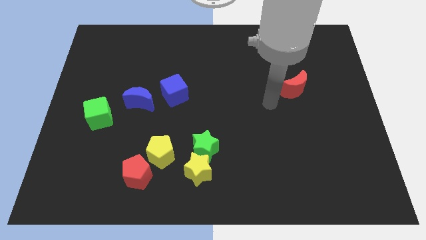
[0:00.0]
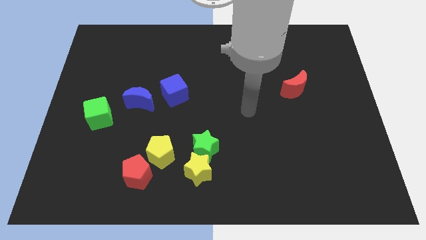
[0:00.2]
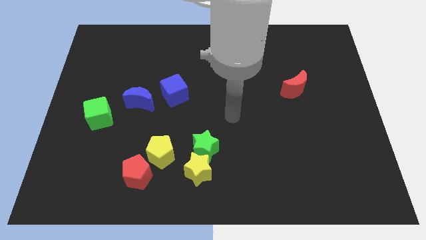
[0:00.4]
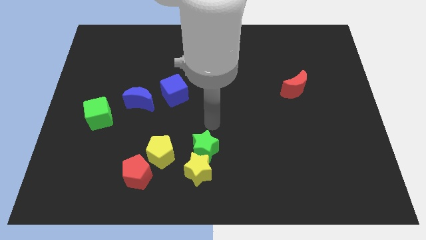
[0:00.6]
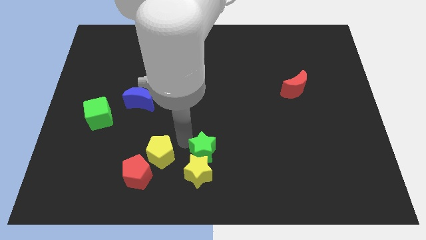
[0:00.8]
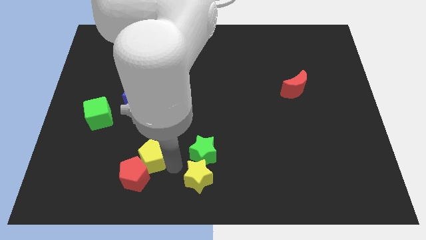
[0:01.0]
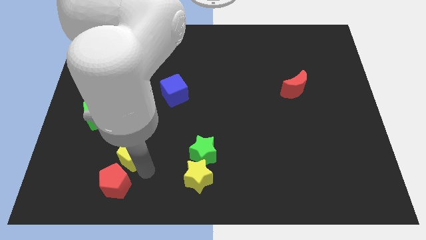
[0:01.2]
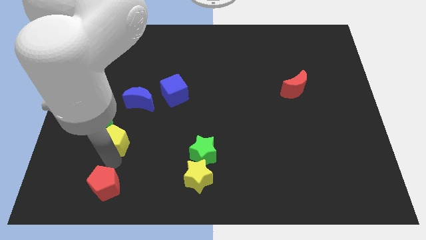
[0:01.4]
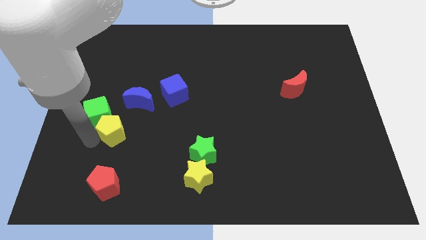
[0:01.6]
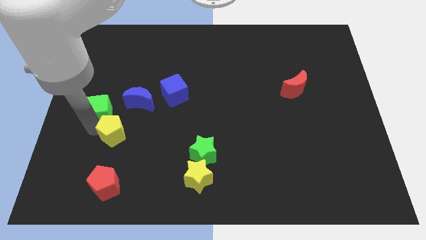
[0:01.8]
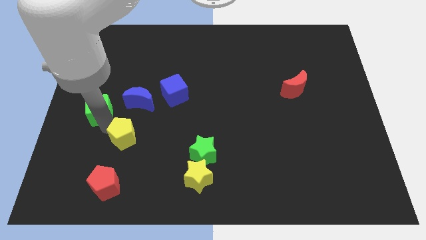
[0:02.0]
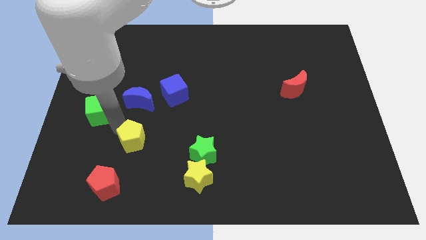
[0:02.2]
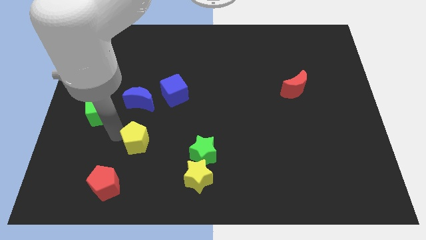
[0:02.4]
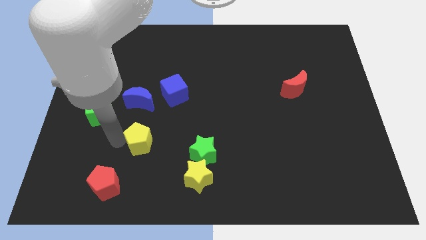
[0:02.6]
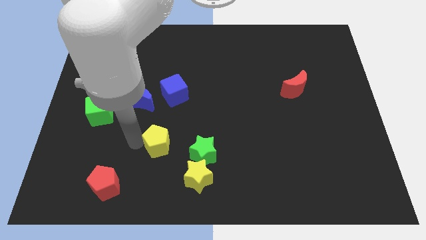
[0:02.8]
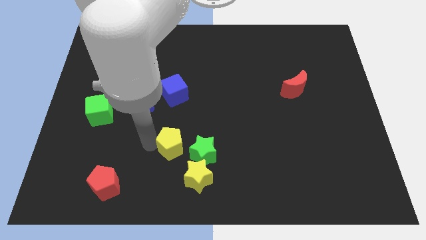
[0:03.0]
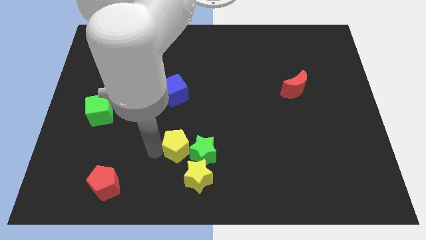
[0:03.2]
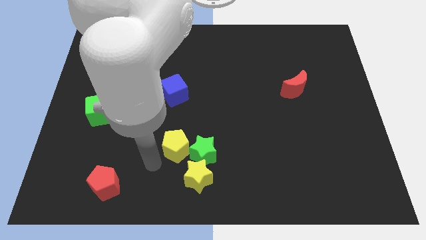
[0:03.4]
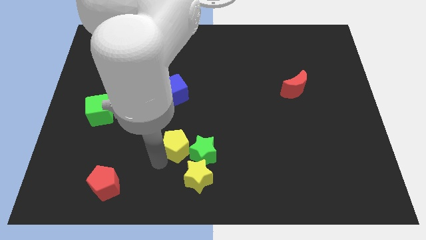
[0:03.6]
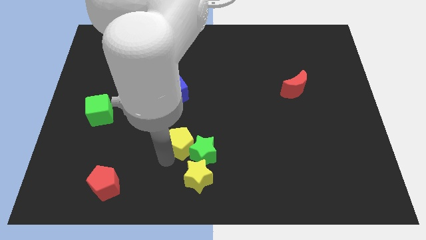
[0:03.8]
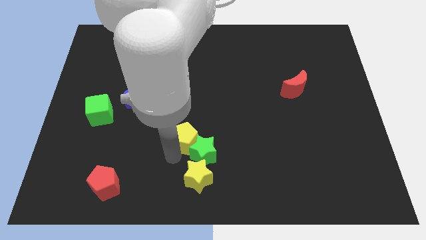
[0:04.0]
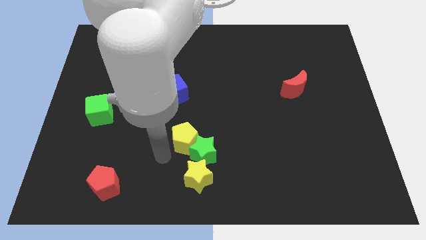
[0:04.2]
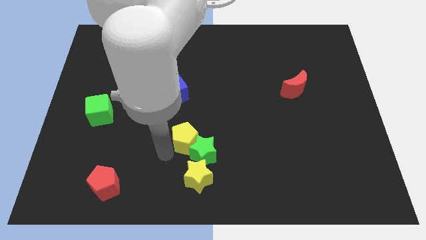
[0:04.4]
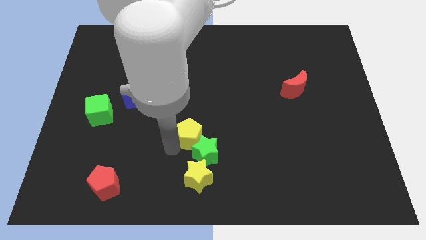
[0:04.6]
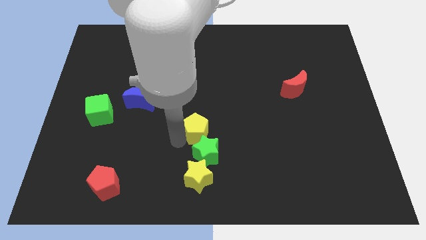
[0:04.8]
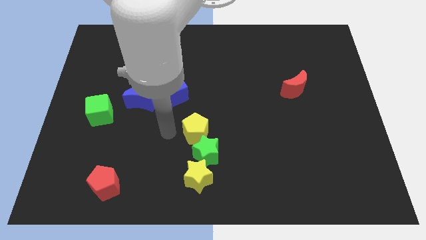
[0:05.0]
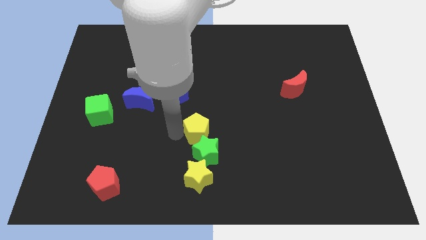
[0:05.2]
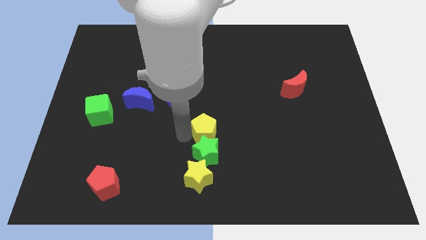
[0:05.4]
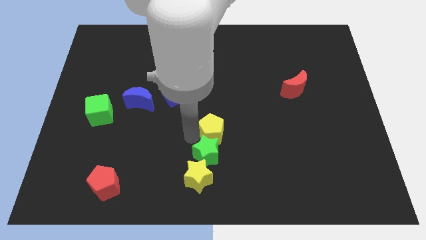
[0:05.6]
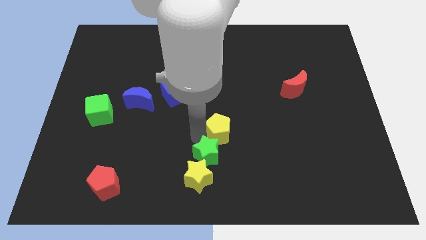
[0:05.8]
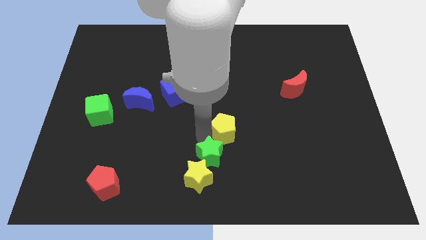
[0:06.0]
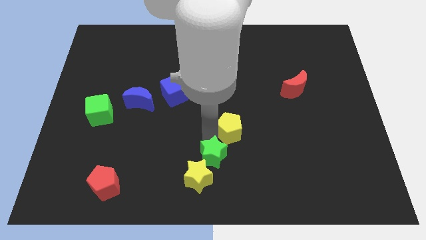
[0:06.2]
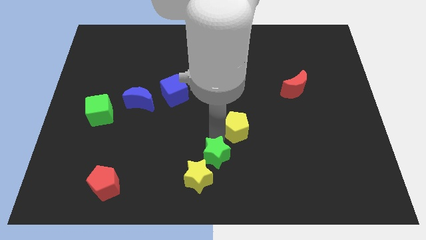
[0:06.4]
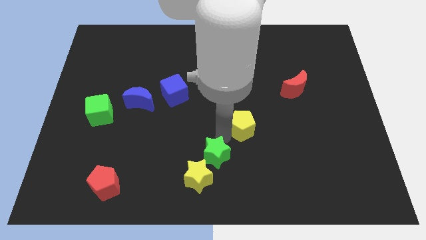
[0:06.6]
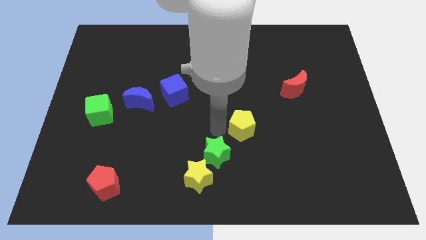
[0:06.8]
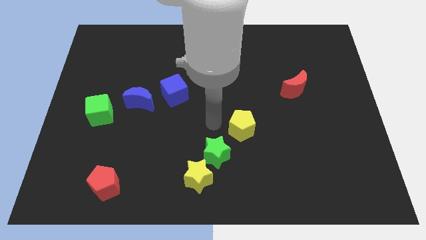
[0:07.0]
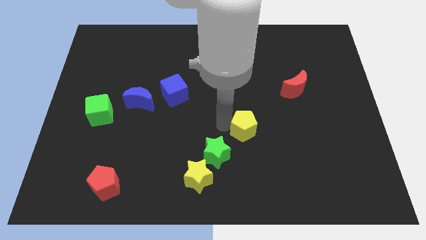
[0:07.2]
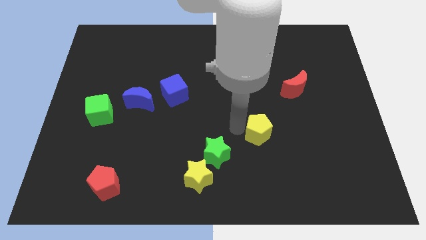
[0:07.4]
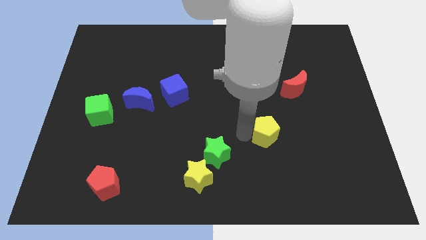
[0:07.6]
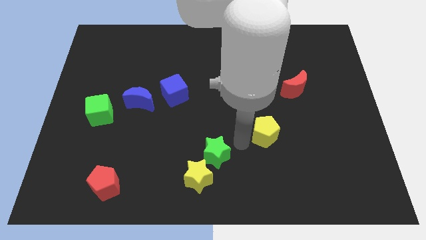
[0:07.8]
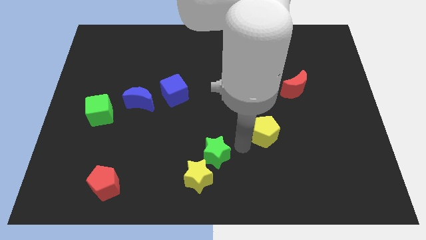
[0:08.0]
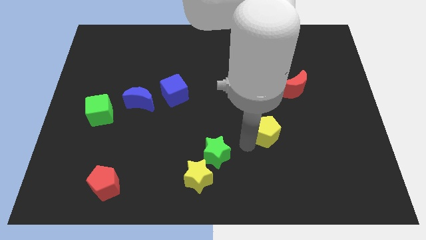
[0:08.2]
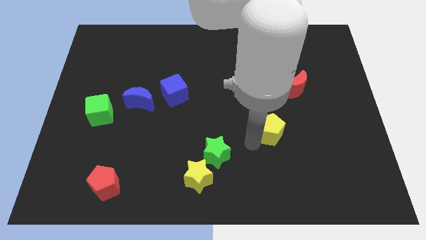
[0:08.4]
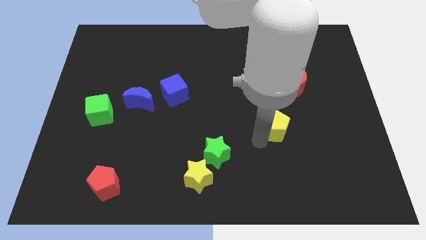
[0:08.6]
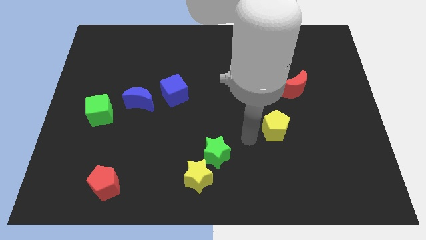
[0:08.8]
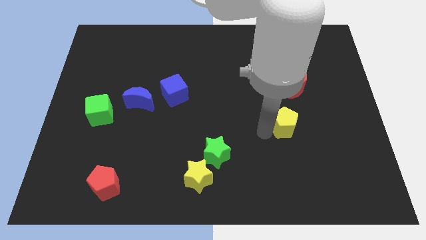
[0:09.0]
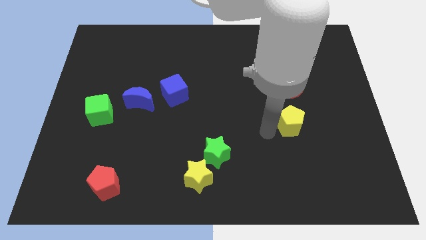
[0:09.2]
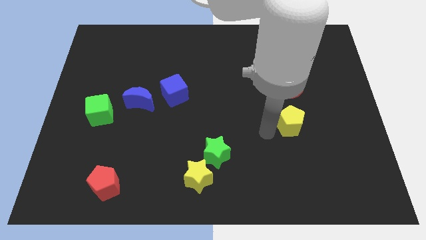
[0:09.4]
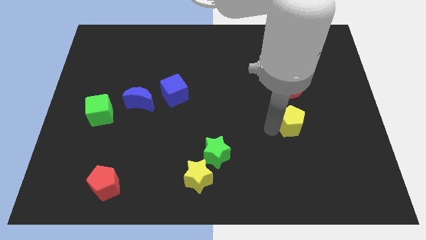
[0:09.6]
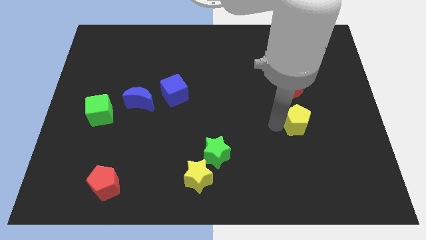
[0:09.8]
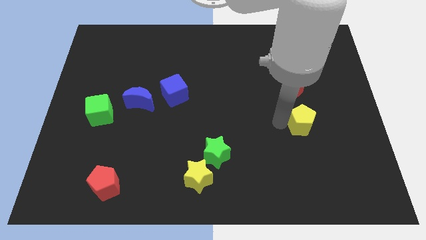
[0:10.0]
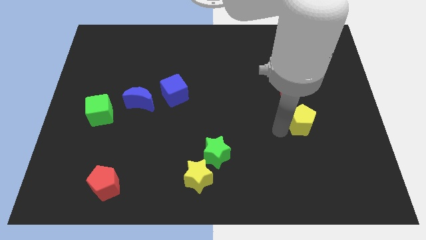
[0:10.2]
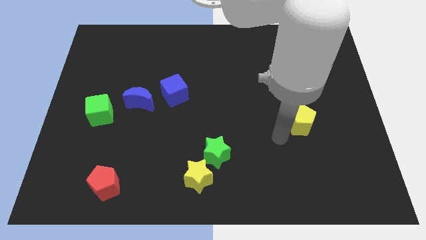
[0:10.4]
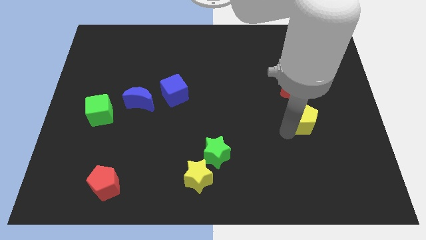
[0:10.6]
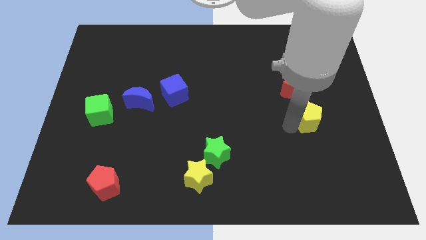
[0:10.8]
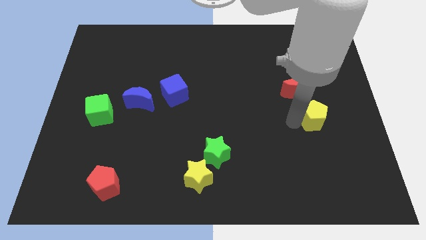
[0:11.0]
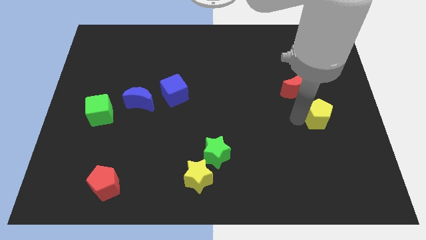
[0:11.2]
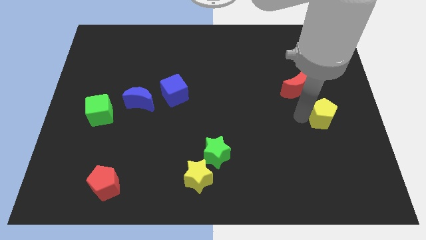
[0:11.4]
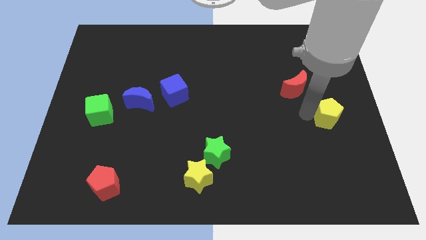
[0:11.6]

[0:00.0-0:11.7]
push the yellow pentagon to the right side of the board

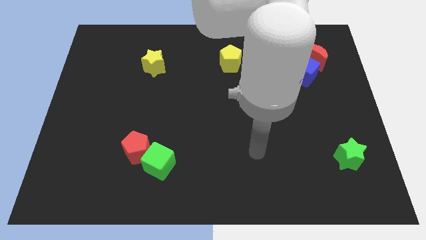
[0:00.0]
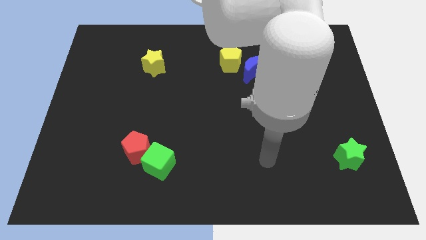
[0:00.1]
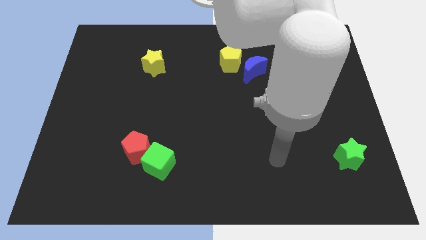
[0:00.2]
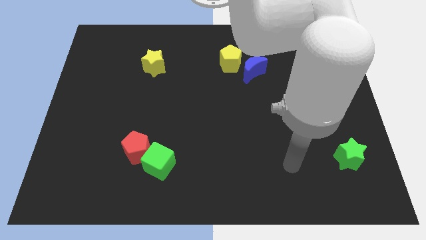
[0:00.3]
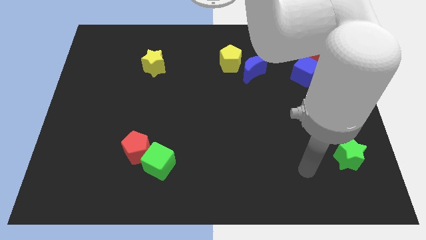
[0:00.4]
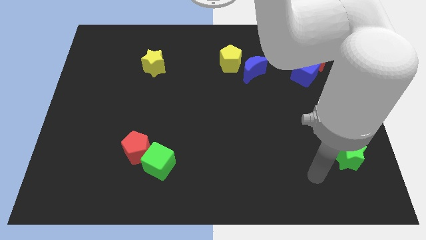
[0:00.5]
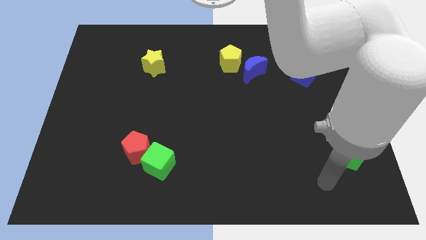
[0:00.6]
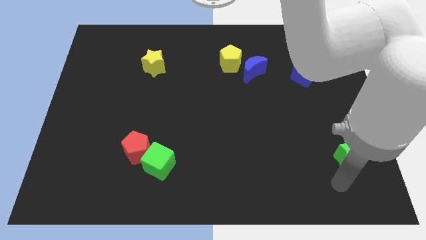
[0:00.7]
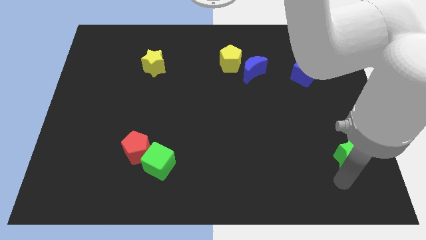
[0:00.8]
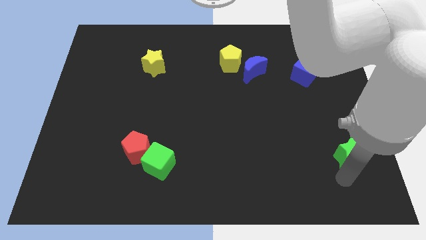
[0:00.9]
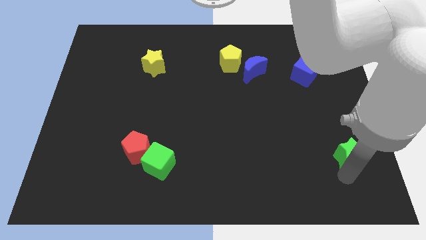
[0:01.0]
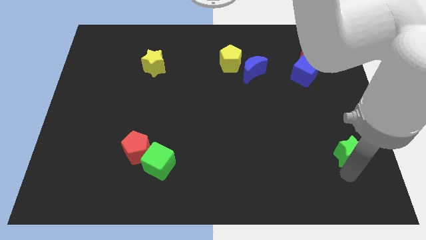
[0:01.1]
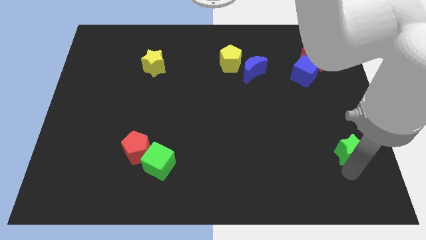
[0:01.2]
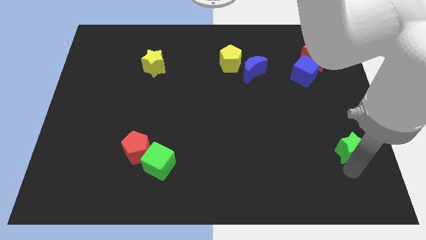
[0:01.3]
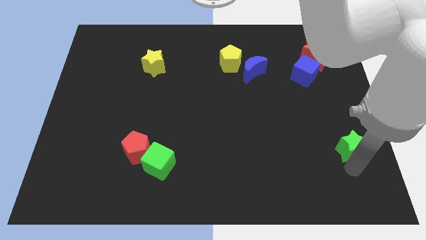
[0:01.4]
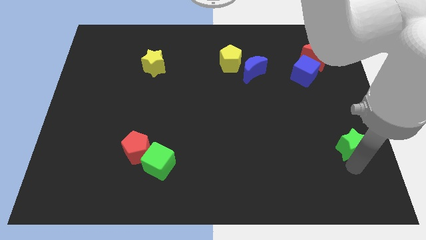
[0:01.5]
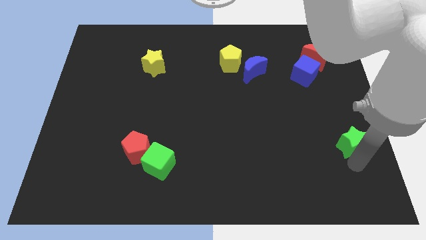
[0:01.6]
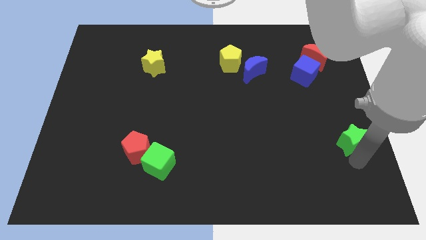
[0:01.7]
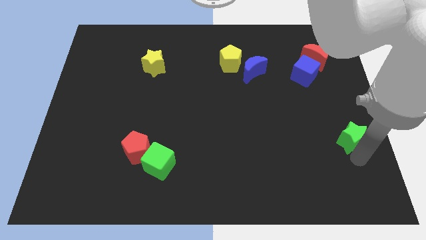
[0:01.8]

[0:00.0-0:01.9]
push the green star to the right side of the board
